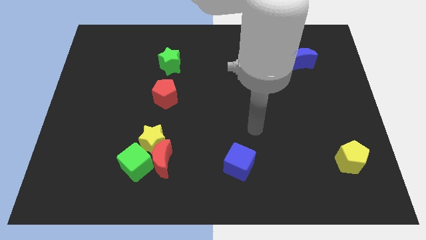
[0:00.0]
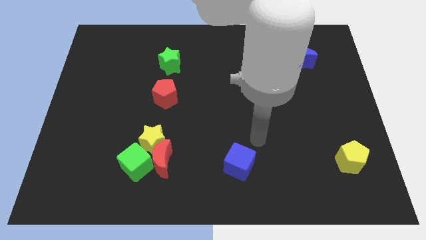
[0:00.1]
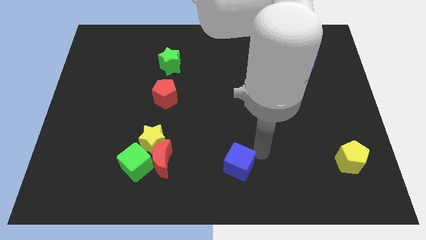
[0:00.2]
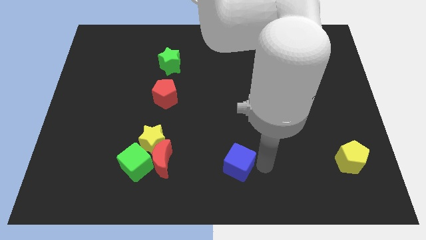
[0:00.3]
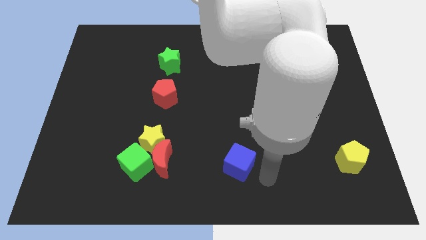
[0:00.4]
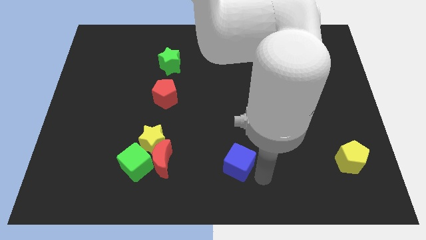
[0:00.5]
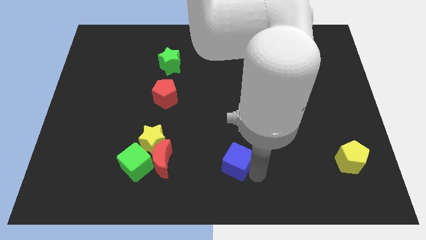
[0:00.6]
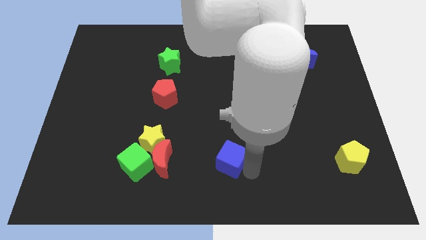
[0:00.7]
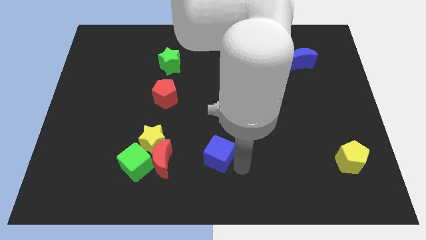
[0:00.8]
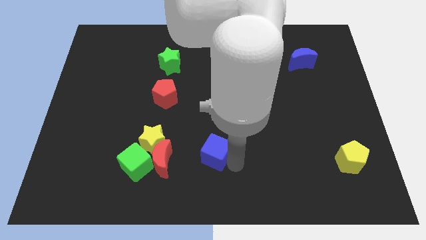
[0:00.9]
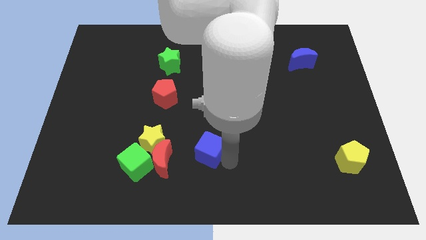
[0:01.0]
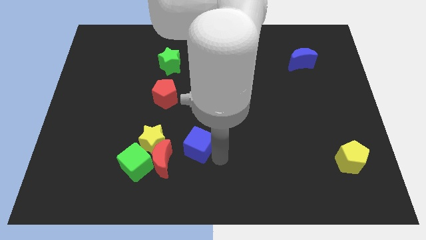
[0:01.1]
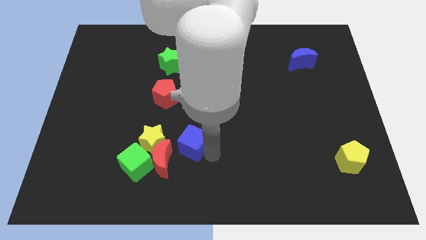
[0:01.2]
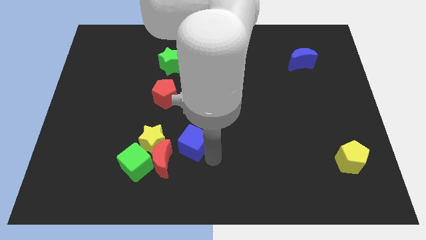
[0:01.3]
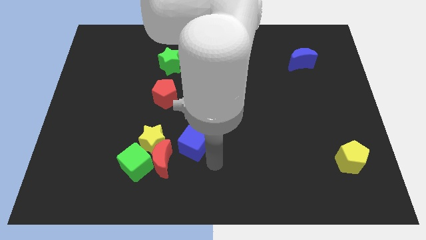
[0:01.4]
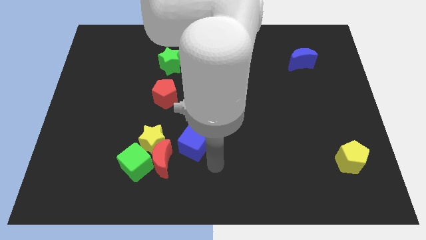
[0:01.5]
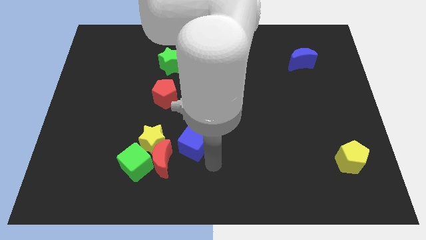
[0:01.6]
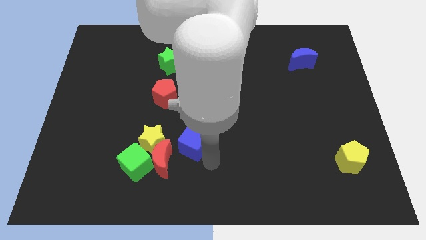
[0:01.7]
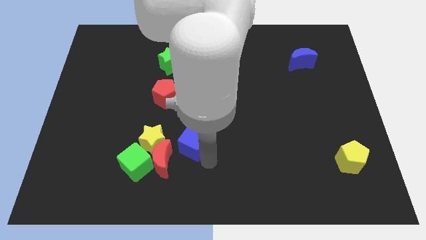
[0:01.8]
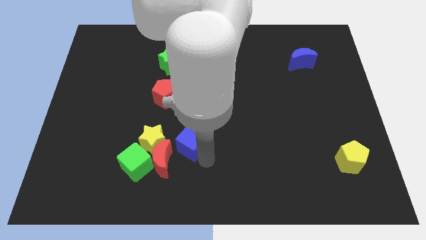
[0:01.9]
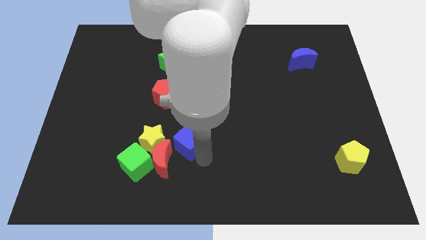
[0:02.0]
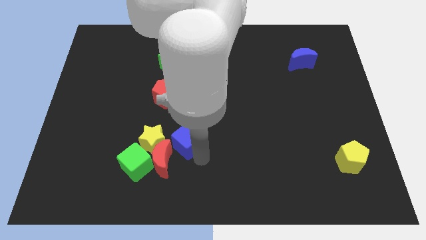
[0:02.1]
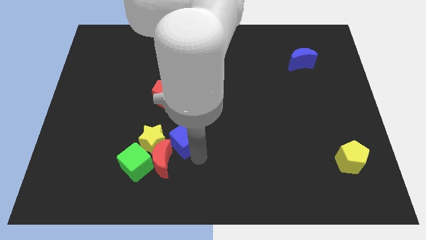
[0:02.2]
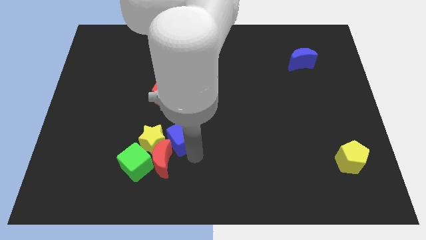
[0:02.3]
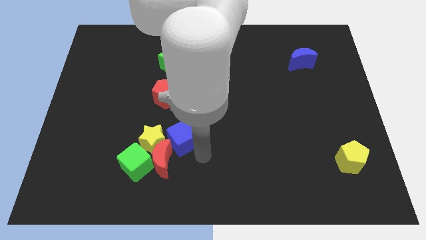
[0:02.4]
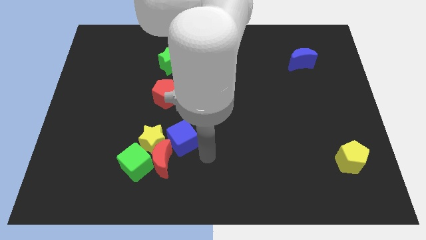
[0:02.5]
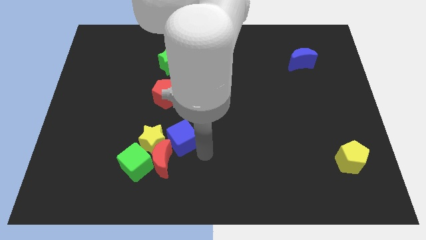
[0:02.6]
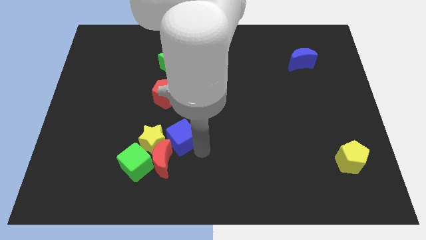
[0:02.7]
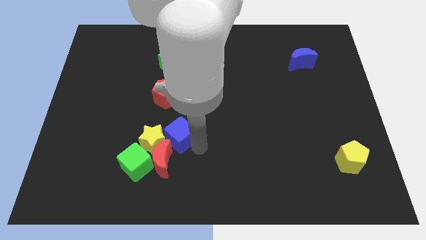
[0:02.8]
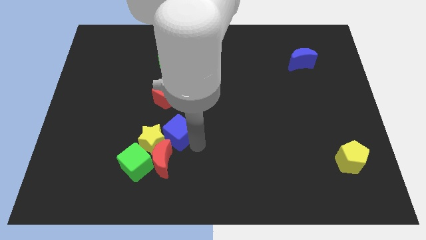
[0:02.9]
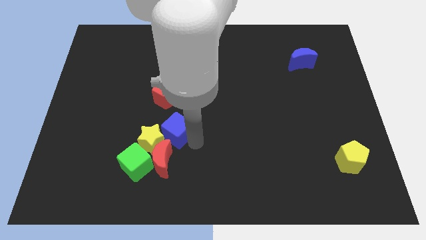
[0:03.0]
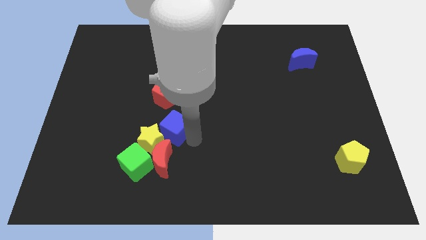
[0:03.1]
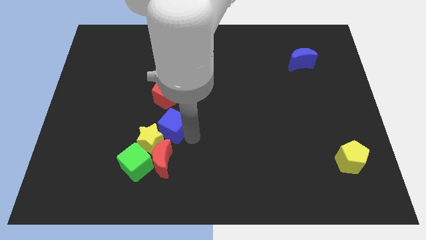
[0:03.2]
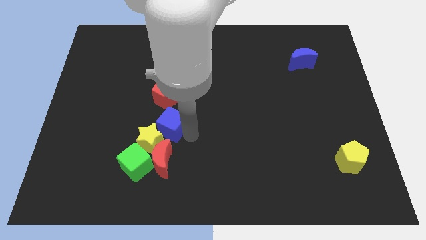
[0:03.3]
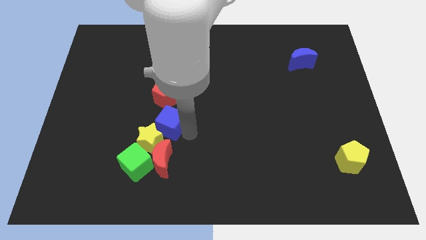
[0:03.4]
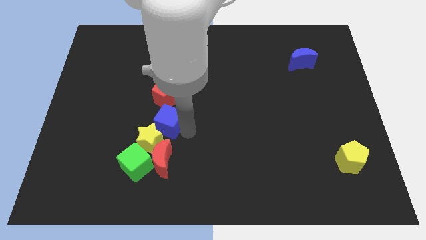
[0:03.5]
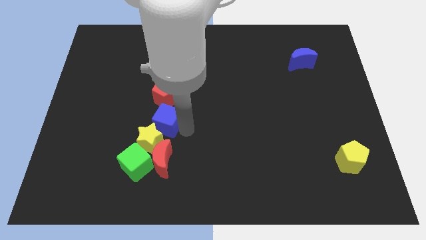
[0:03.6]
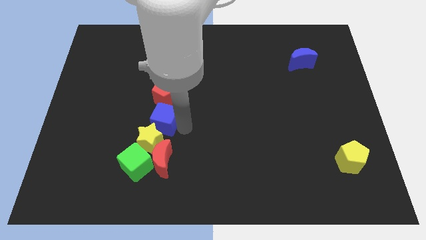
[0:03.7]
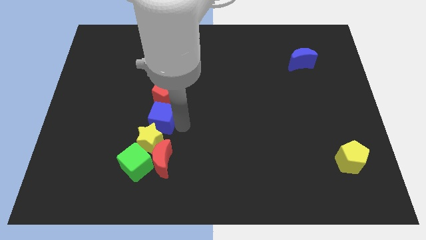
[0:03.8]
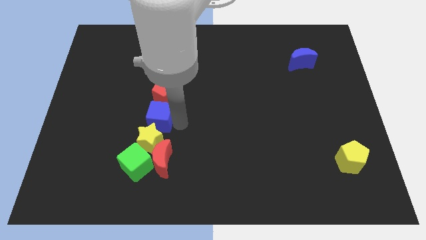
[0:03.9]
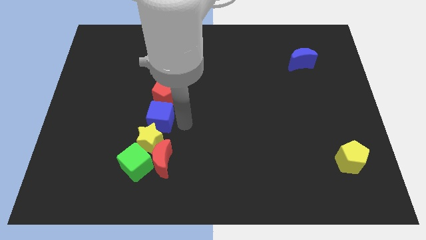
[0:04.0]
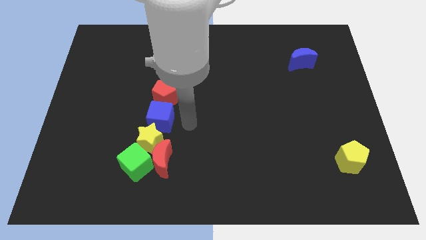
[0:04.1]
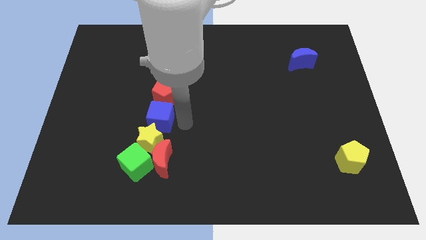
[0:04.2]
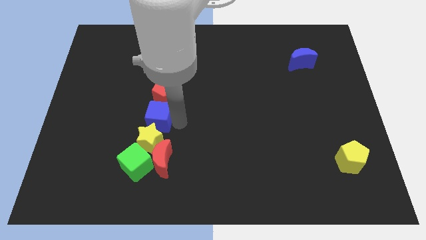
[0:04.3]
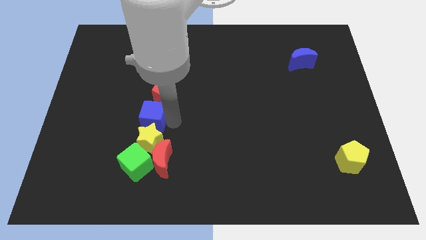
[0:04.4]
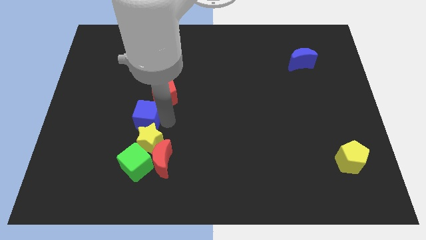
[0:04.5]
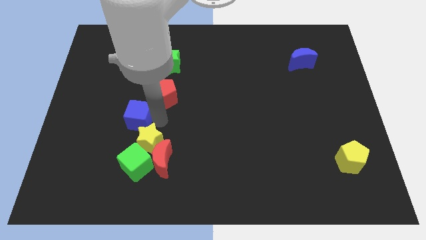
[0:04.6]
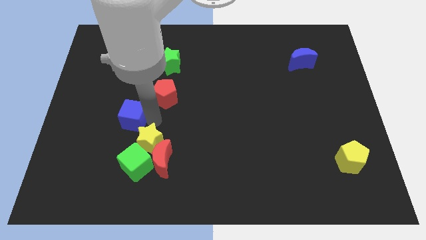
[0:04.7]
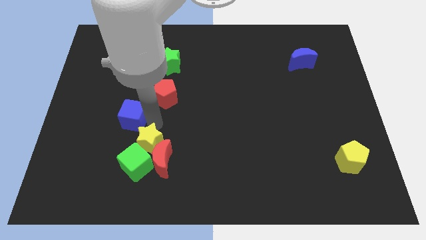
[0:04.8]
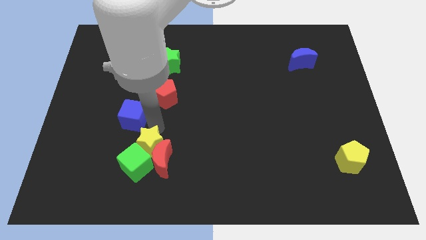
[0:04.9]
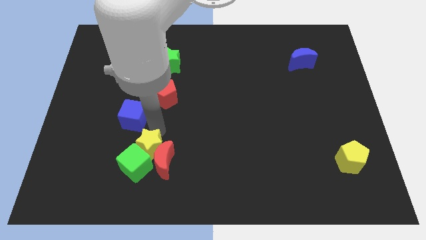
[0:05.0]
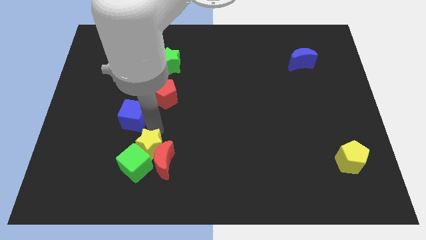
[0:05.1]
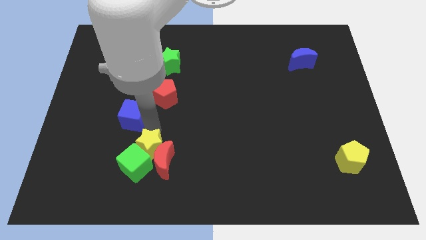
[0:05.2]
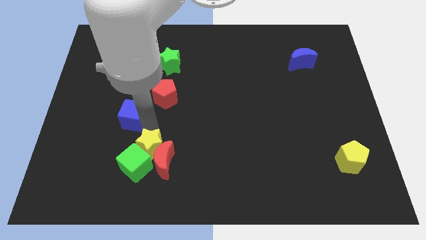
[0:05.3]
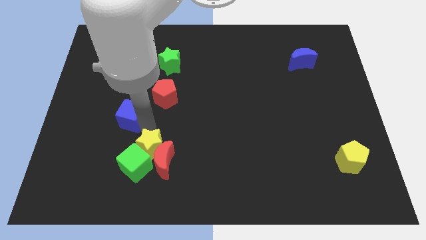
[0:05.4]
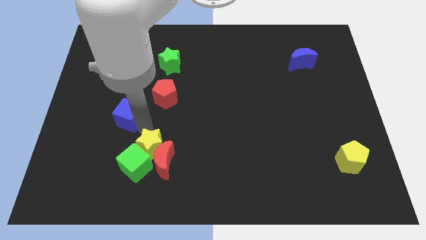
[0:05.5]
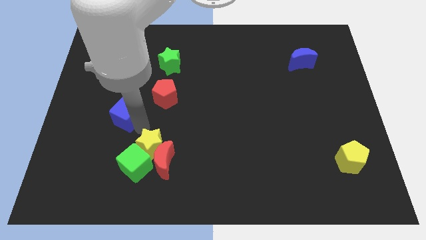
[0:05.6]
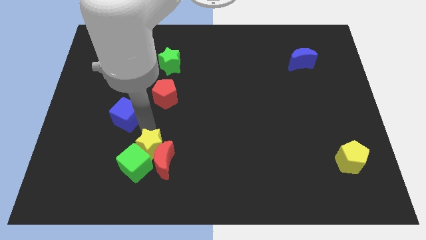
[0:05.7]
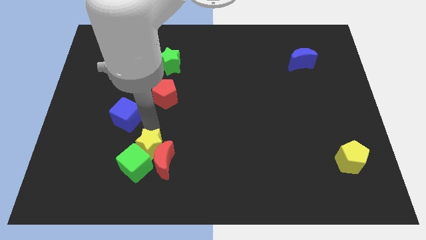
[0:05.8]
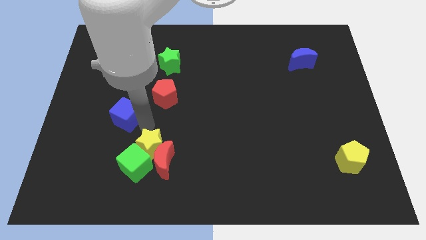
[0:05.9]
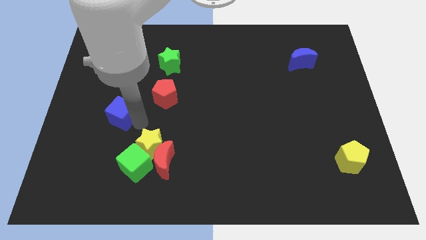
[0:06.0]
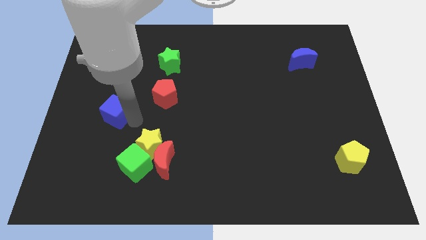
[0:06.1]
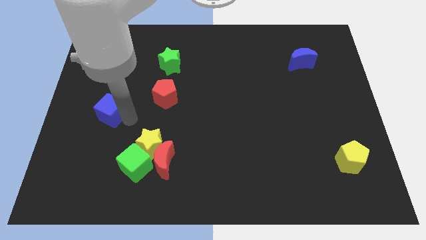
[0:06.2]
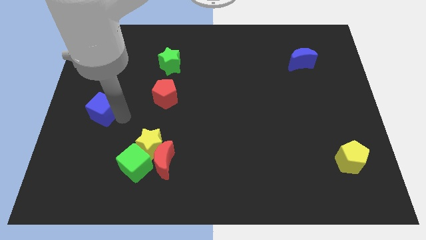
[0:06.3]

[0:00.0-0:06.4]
push the blue cube to the left side of the board
